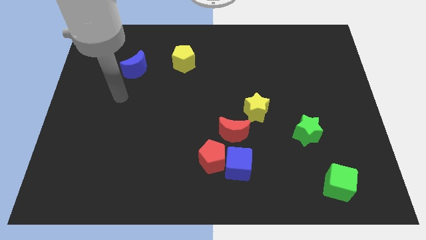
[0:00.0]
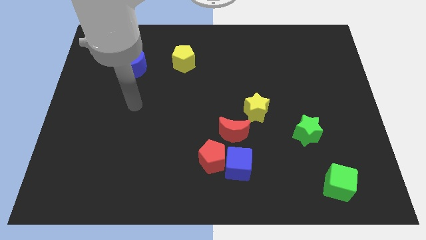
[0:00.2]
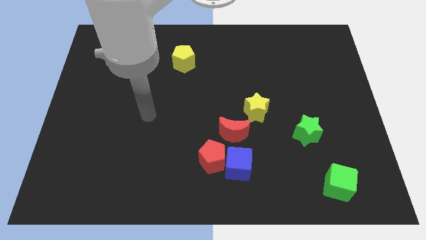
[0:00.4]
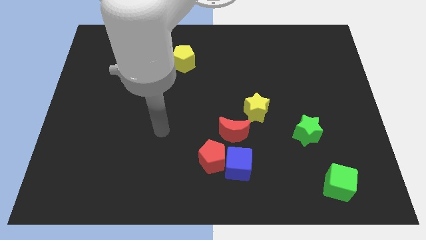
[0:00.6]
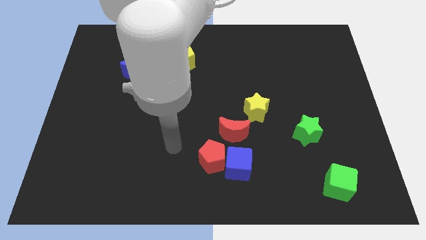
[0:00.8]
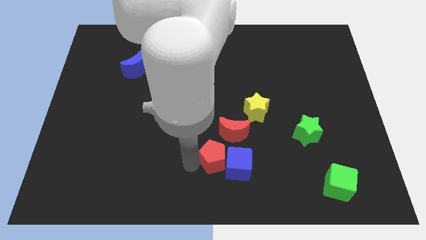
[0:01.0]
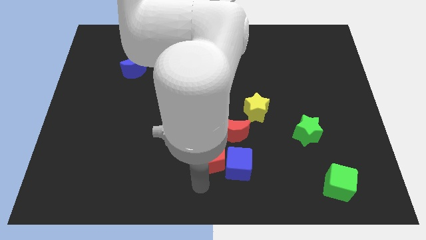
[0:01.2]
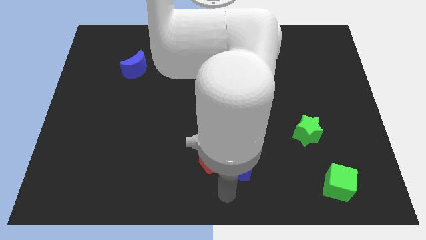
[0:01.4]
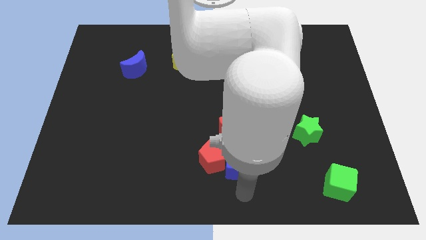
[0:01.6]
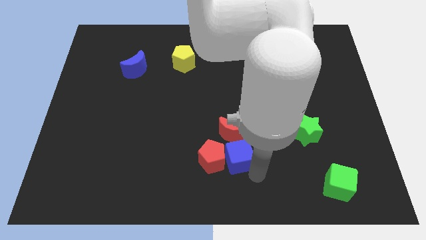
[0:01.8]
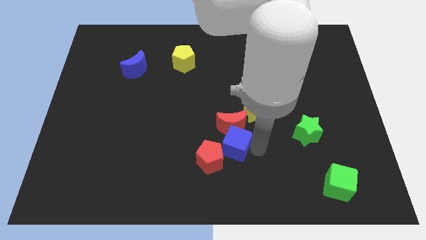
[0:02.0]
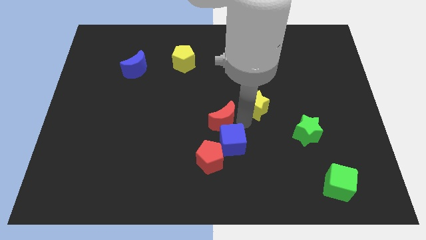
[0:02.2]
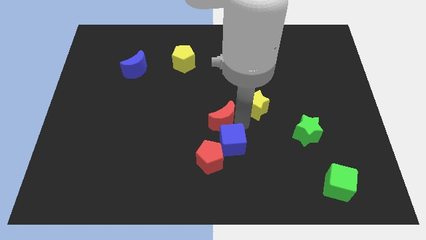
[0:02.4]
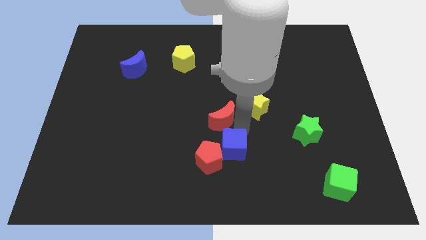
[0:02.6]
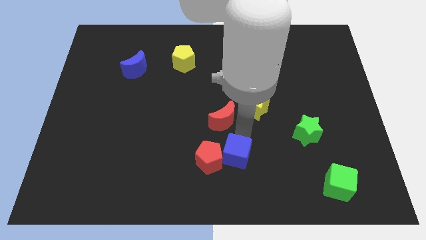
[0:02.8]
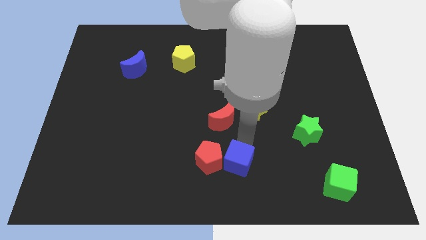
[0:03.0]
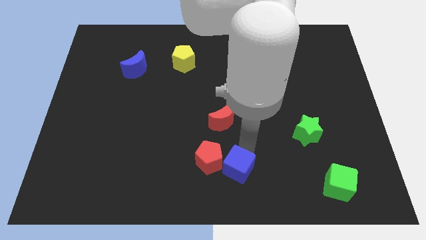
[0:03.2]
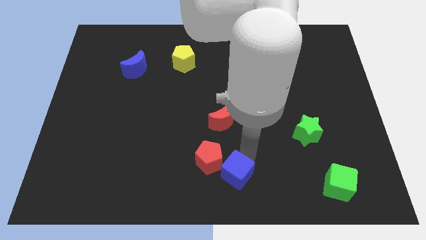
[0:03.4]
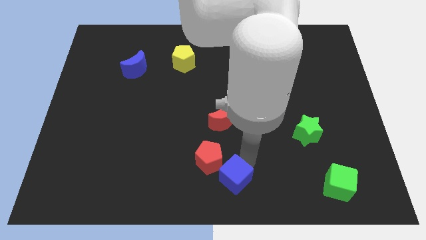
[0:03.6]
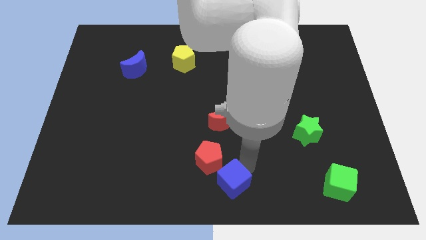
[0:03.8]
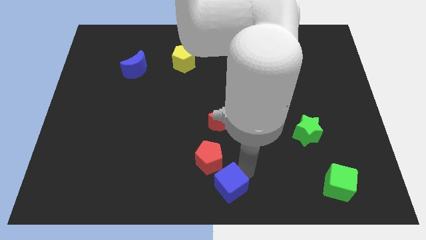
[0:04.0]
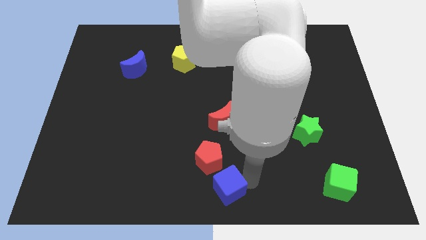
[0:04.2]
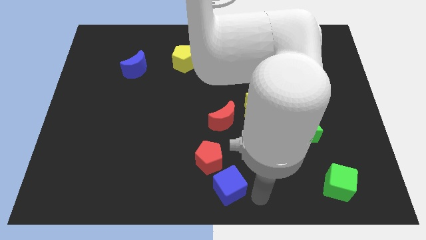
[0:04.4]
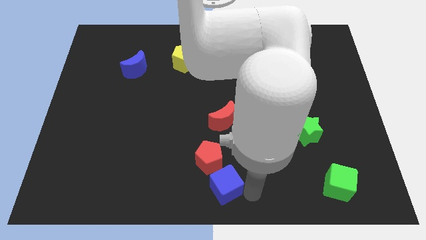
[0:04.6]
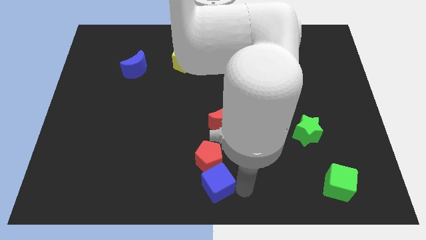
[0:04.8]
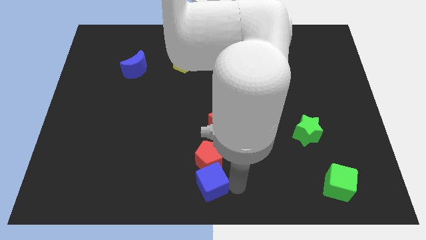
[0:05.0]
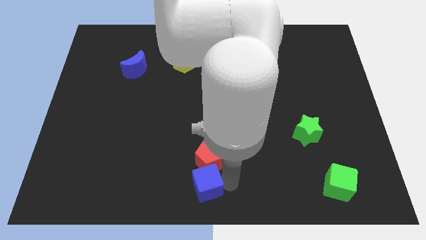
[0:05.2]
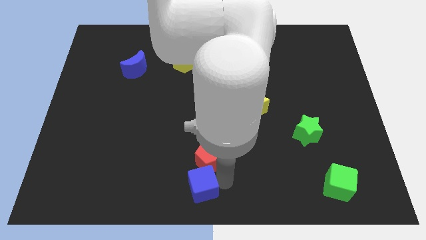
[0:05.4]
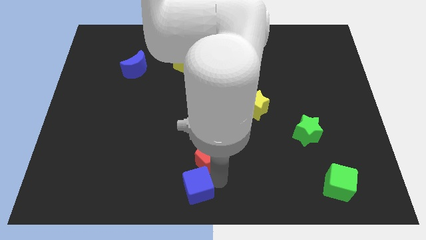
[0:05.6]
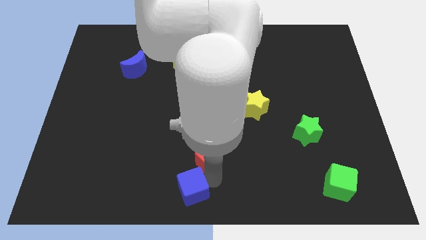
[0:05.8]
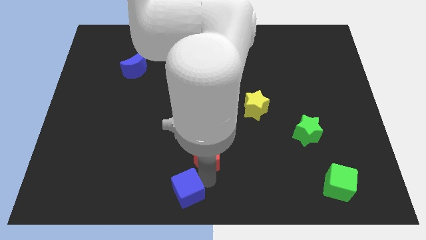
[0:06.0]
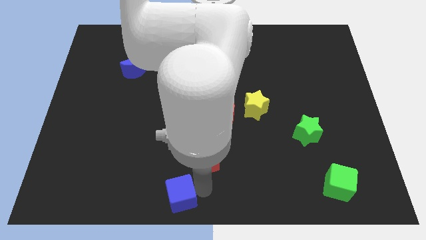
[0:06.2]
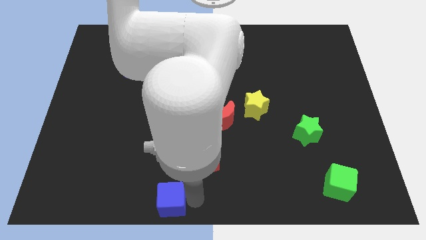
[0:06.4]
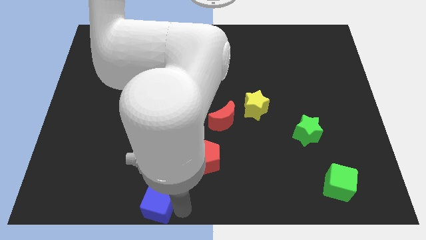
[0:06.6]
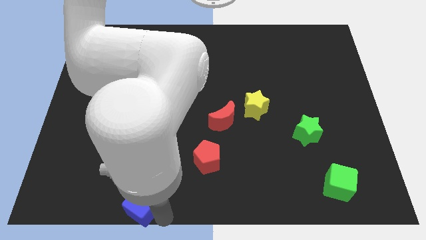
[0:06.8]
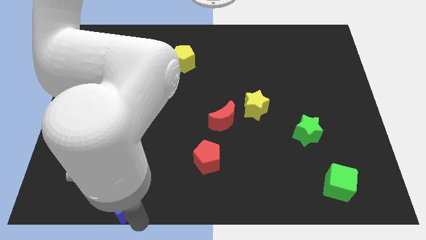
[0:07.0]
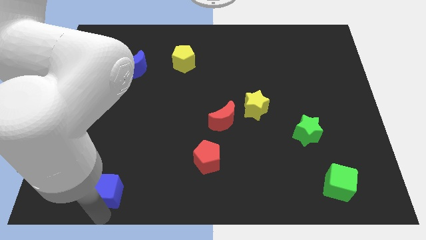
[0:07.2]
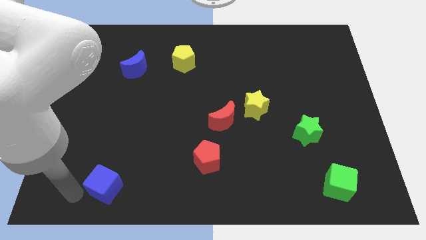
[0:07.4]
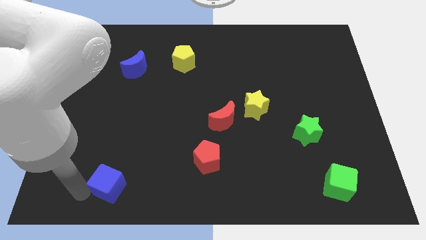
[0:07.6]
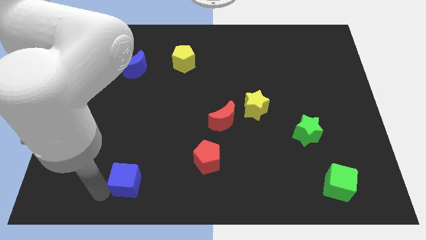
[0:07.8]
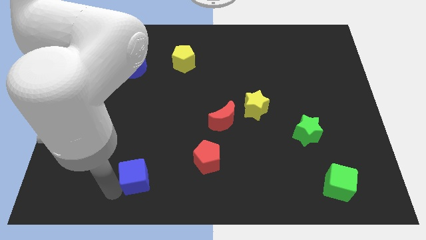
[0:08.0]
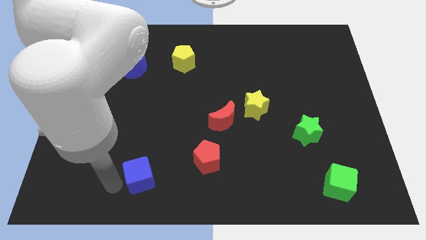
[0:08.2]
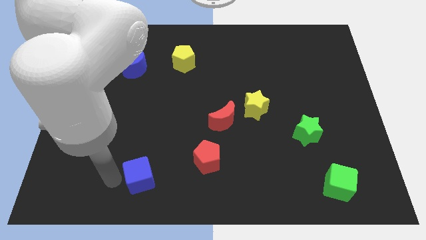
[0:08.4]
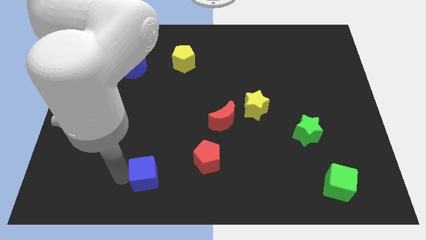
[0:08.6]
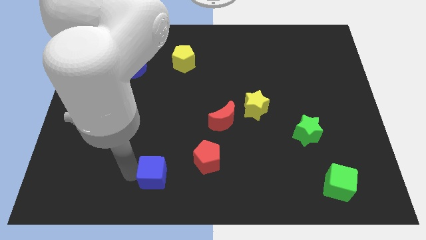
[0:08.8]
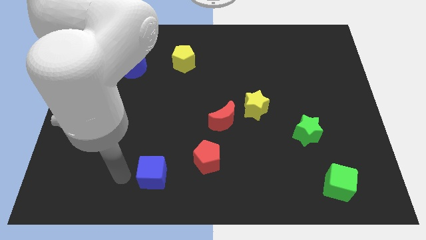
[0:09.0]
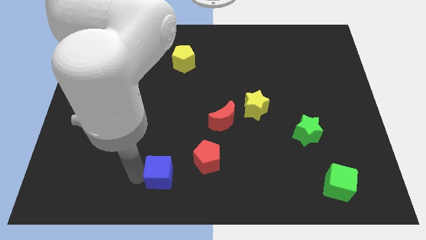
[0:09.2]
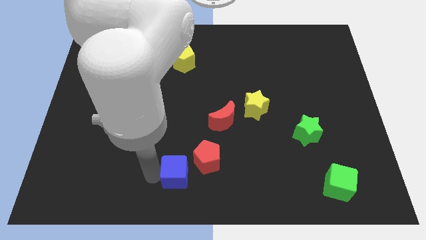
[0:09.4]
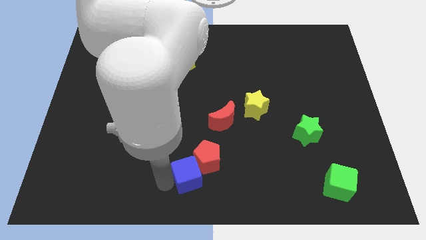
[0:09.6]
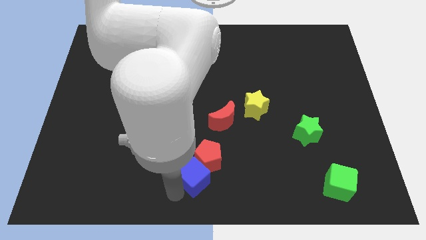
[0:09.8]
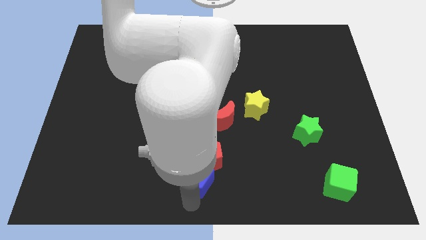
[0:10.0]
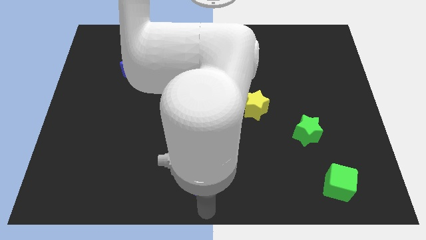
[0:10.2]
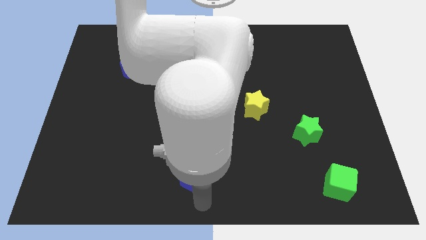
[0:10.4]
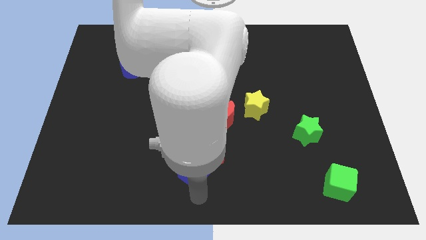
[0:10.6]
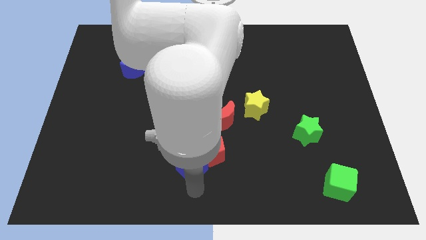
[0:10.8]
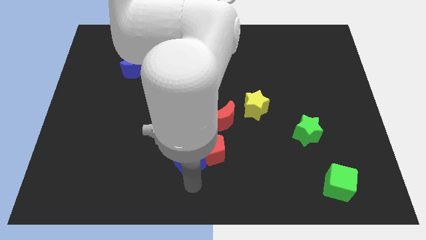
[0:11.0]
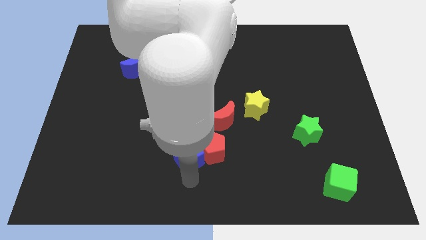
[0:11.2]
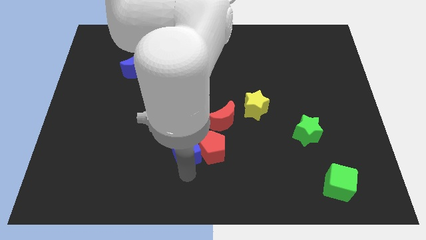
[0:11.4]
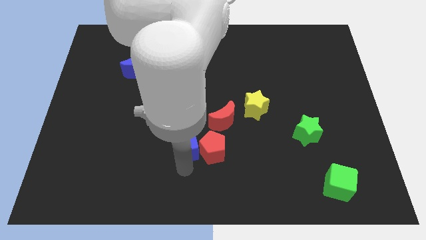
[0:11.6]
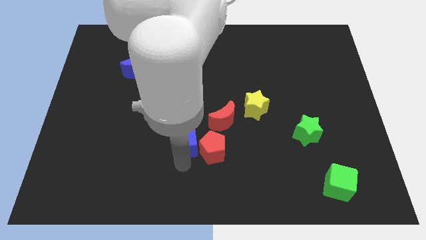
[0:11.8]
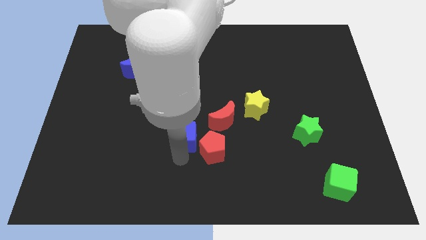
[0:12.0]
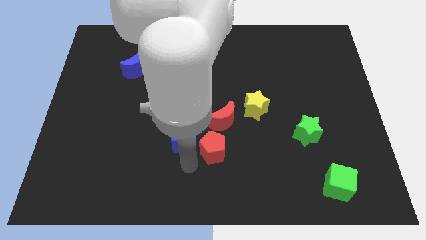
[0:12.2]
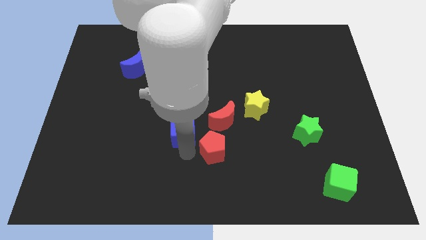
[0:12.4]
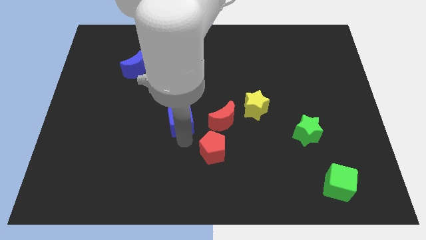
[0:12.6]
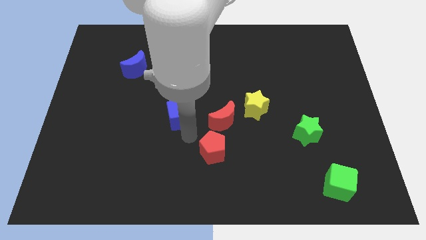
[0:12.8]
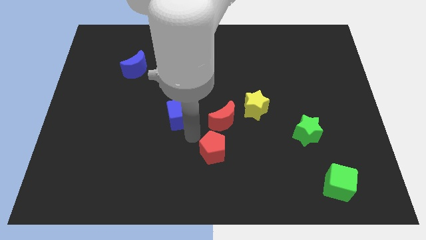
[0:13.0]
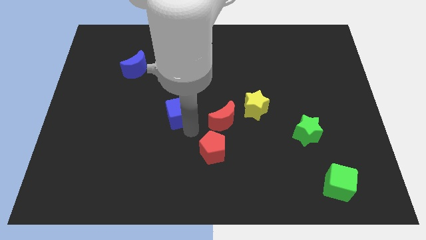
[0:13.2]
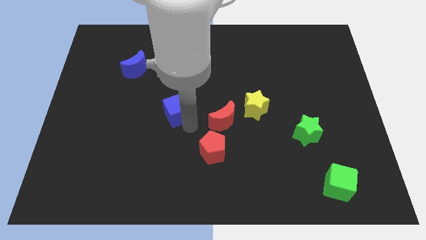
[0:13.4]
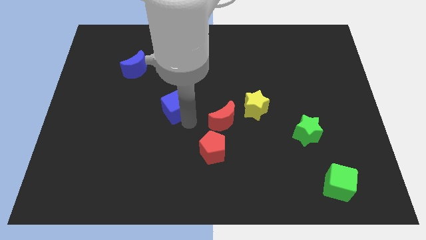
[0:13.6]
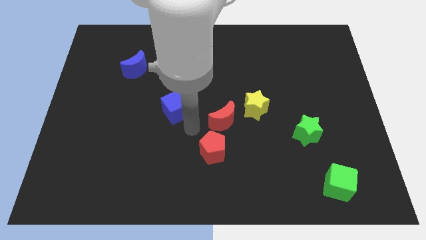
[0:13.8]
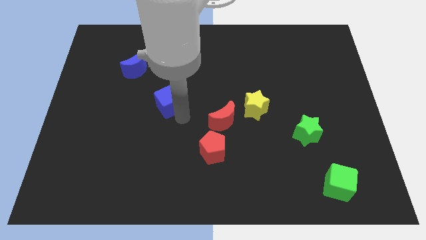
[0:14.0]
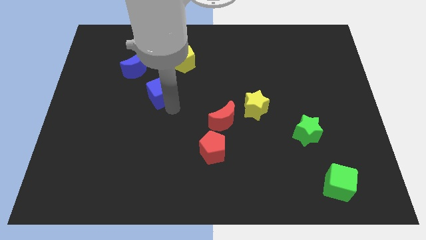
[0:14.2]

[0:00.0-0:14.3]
slide the blue cube to the bottom right of the blue moon
